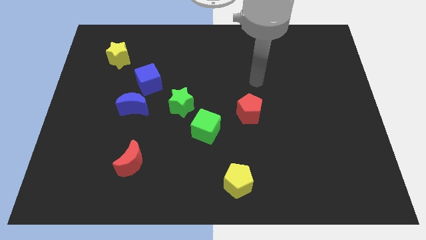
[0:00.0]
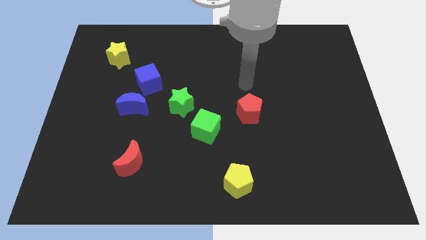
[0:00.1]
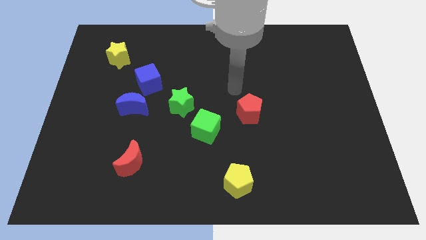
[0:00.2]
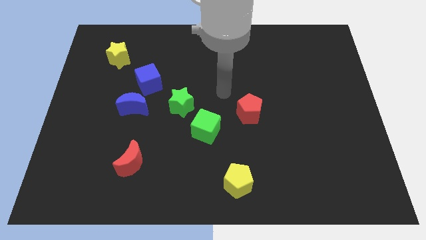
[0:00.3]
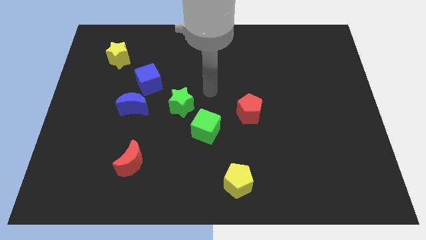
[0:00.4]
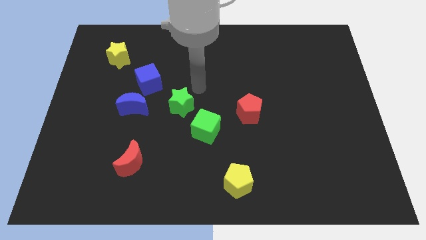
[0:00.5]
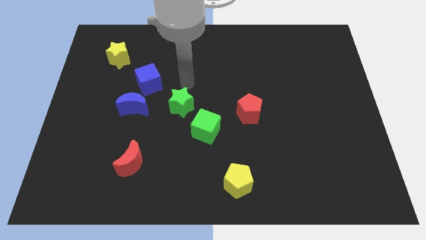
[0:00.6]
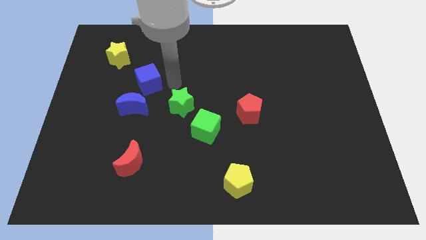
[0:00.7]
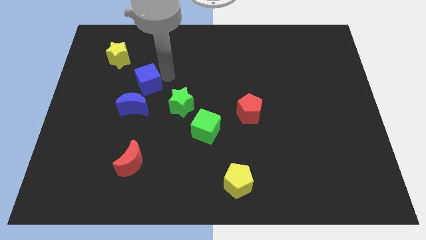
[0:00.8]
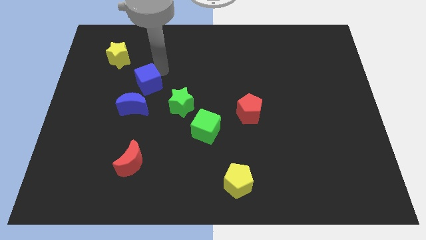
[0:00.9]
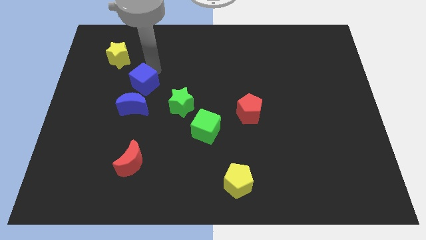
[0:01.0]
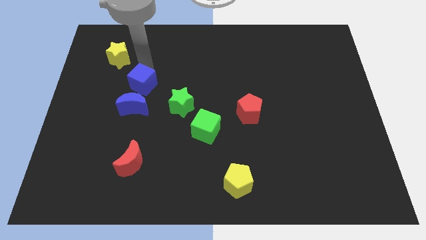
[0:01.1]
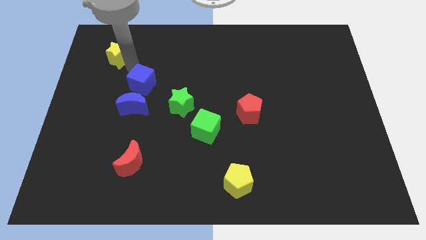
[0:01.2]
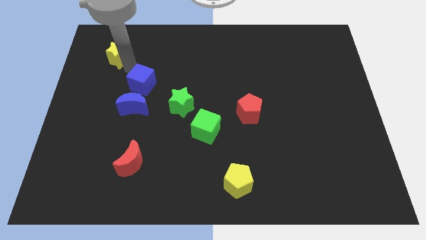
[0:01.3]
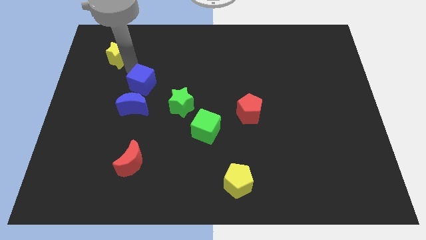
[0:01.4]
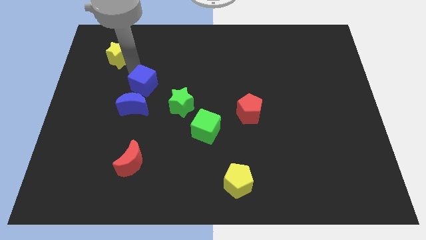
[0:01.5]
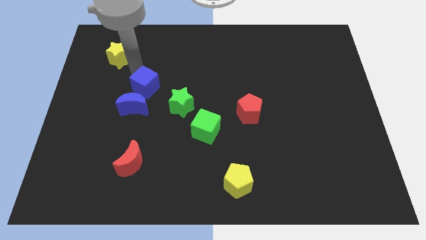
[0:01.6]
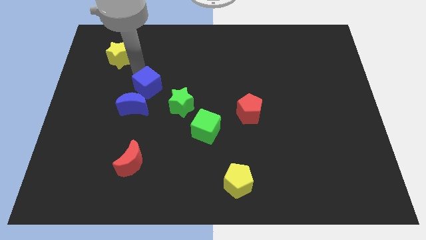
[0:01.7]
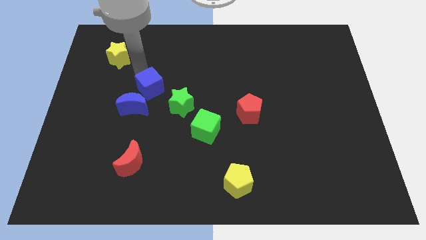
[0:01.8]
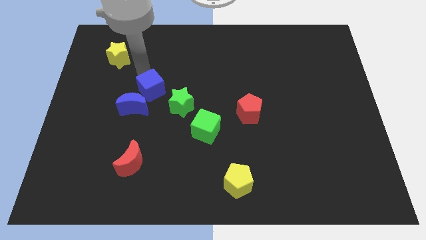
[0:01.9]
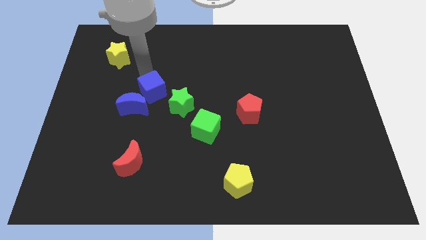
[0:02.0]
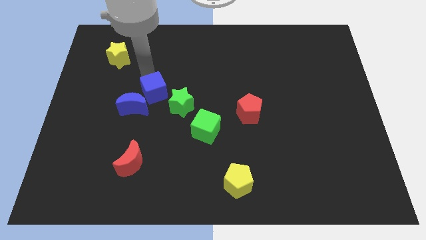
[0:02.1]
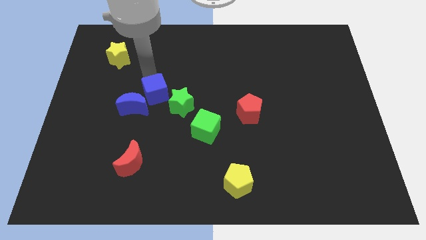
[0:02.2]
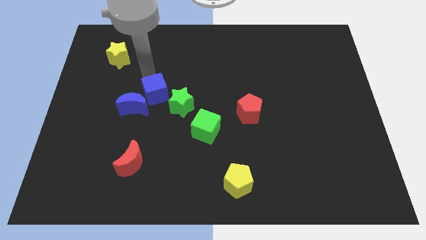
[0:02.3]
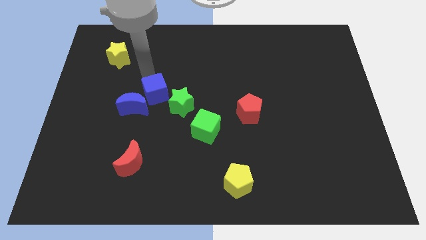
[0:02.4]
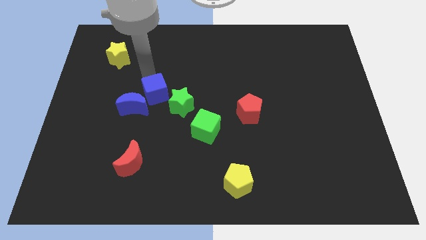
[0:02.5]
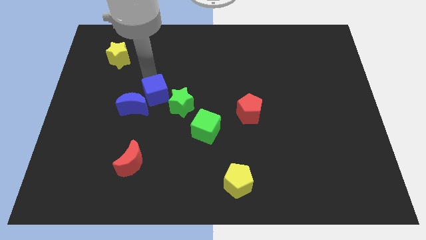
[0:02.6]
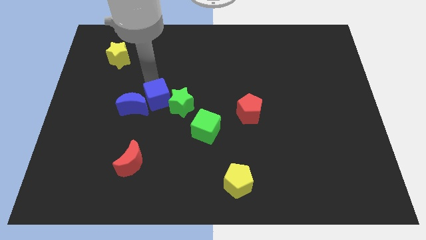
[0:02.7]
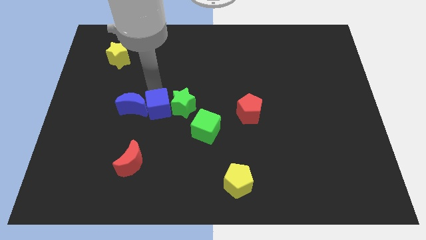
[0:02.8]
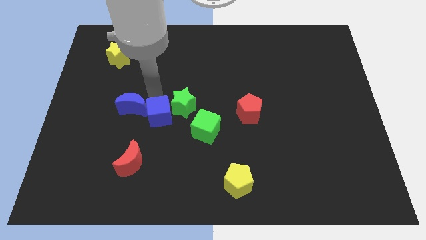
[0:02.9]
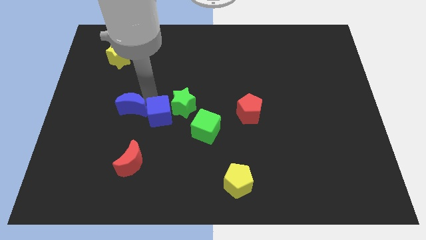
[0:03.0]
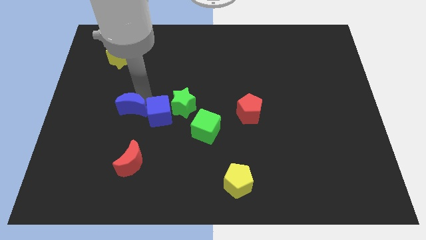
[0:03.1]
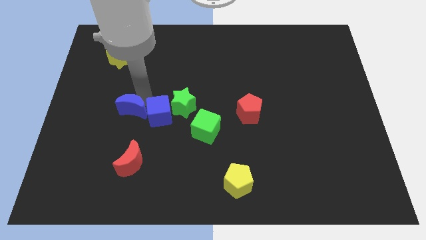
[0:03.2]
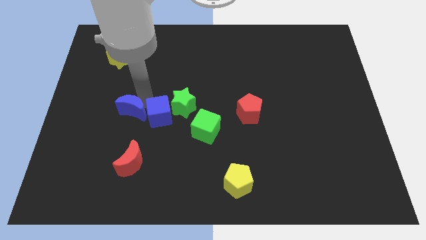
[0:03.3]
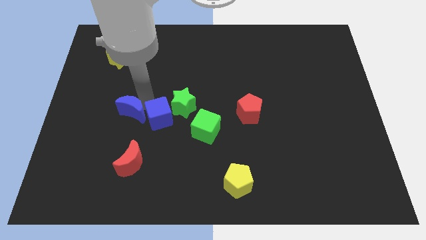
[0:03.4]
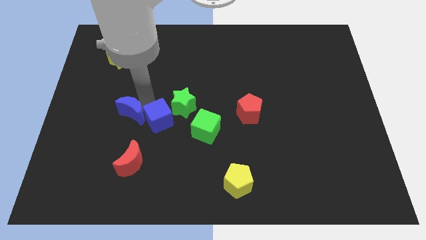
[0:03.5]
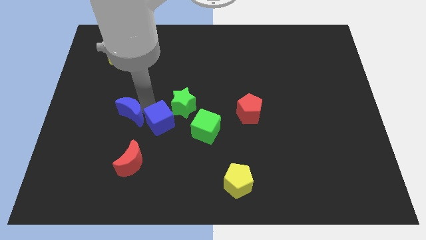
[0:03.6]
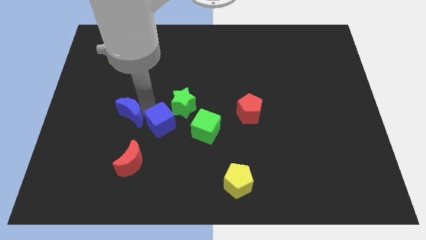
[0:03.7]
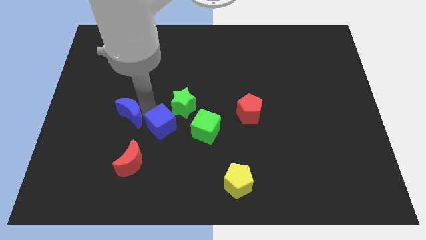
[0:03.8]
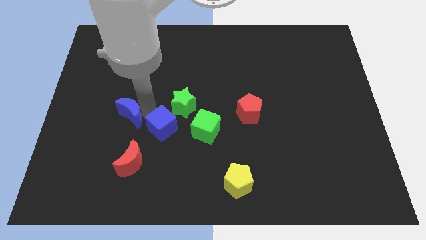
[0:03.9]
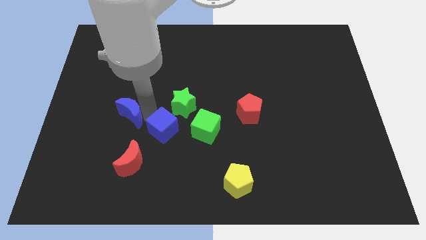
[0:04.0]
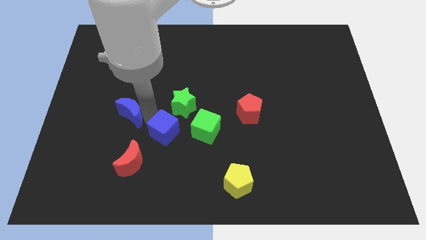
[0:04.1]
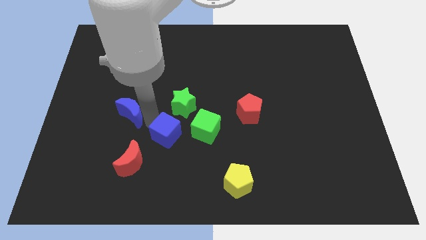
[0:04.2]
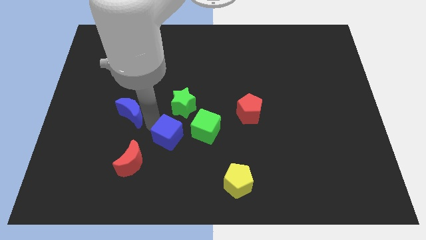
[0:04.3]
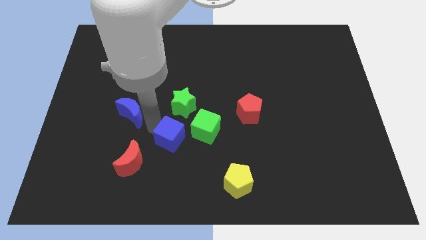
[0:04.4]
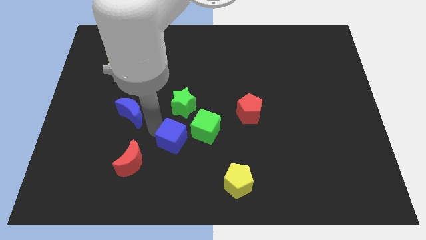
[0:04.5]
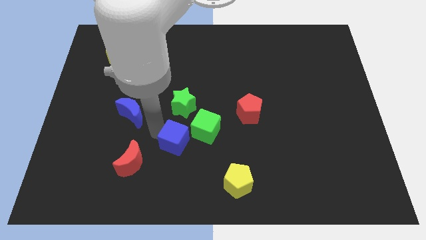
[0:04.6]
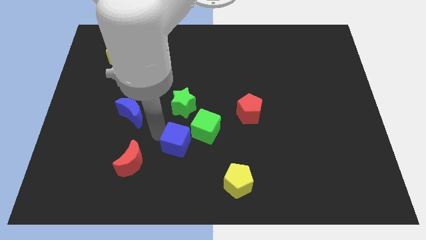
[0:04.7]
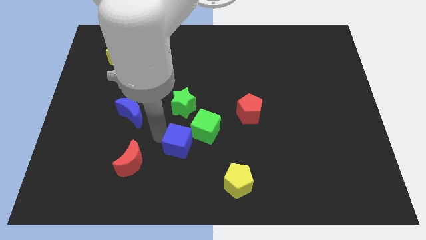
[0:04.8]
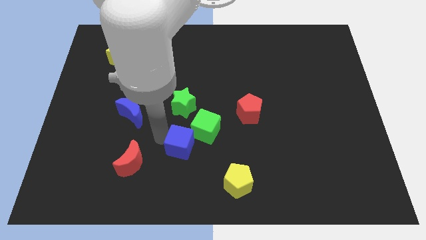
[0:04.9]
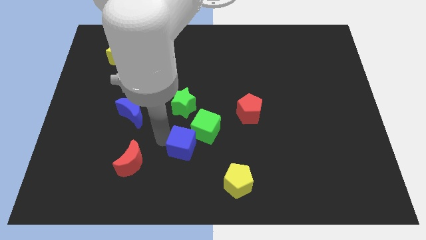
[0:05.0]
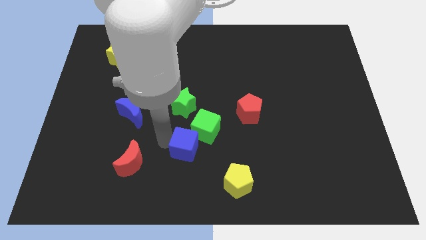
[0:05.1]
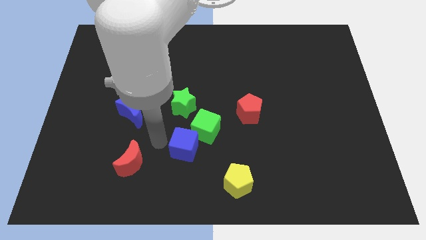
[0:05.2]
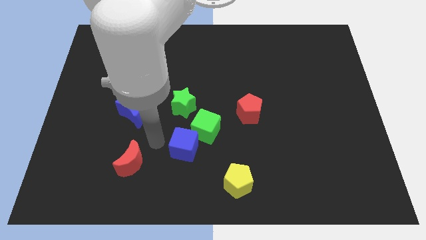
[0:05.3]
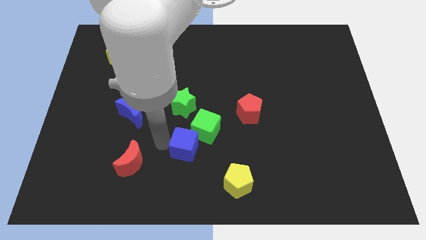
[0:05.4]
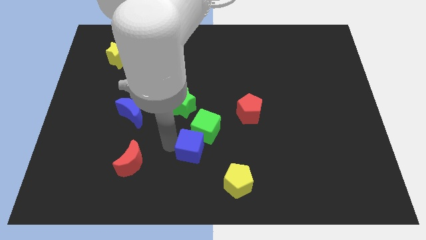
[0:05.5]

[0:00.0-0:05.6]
slide the blue cube diagonally downwards and right

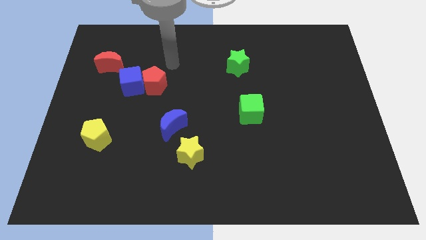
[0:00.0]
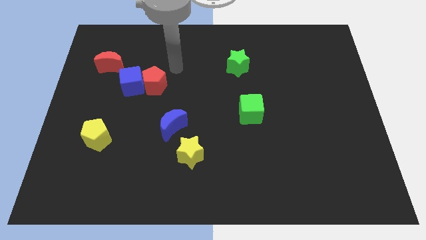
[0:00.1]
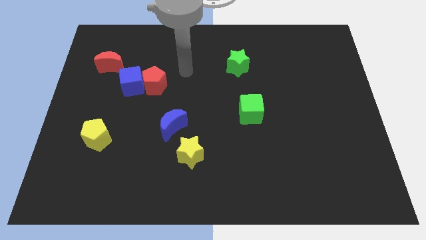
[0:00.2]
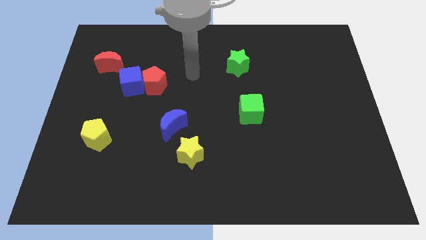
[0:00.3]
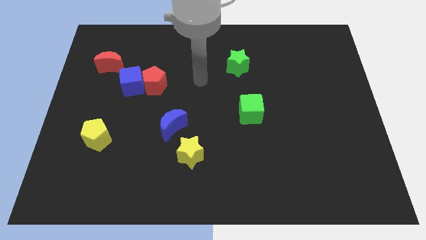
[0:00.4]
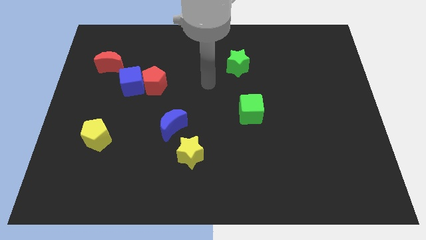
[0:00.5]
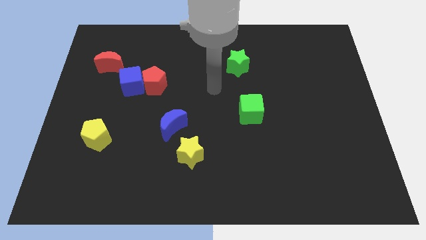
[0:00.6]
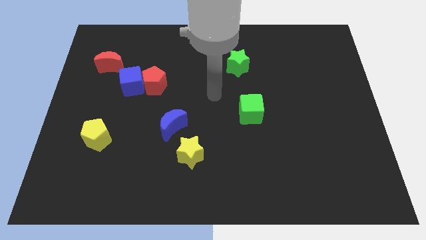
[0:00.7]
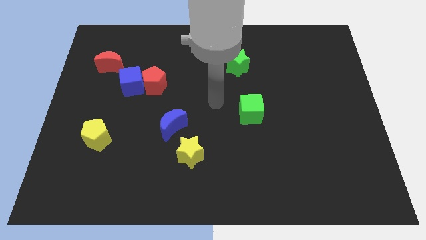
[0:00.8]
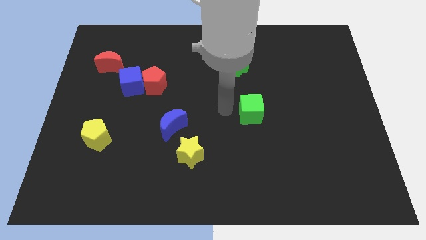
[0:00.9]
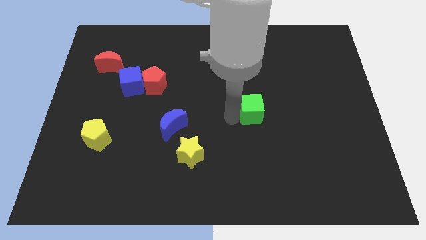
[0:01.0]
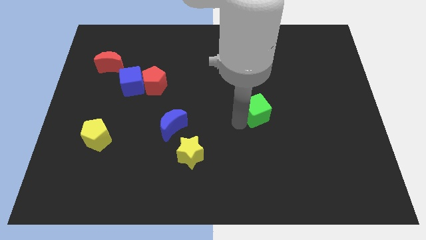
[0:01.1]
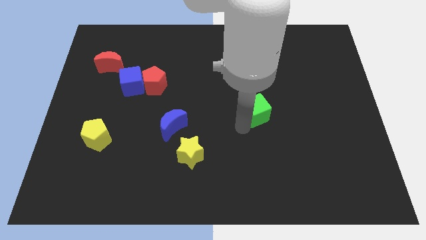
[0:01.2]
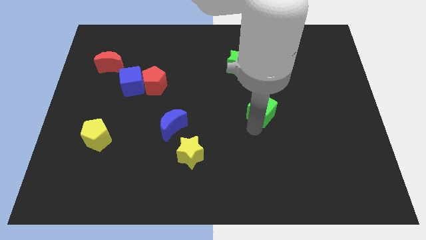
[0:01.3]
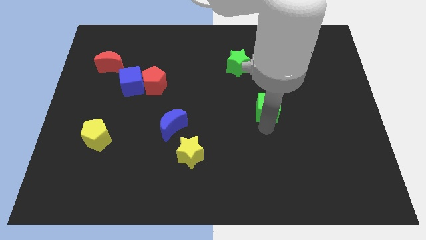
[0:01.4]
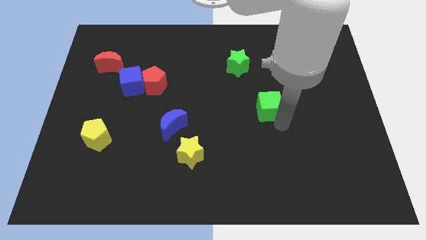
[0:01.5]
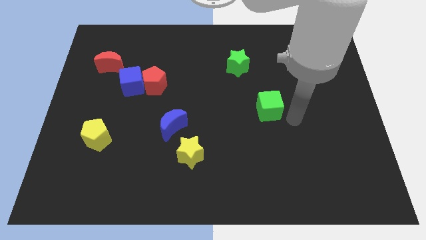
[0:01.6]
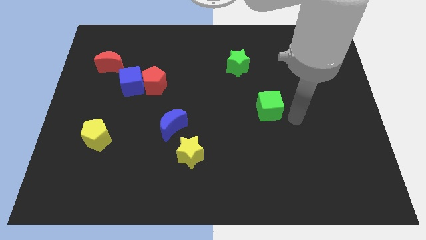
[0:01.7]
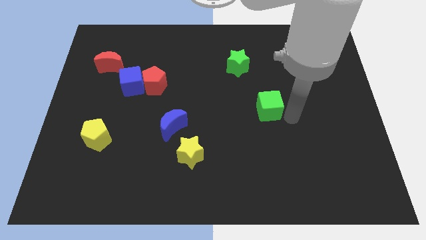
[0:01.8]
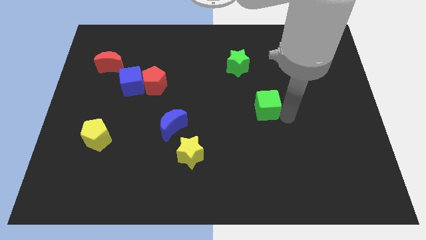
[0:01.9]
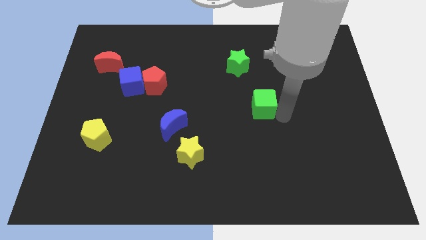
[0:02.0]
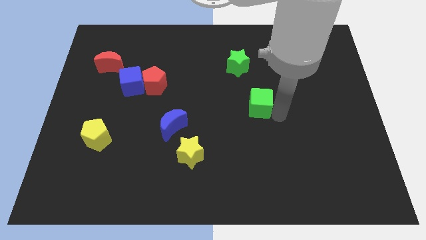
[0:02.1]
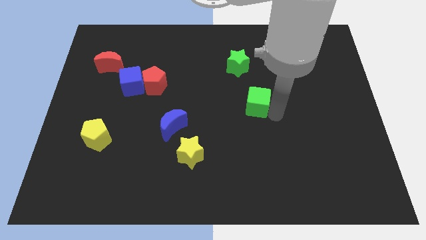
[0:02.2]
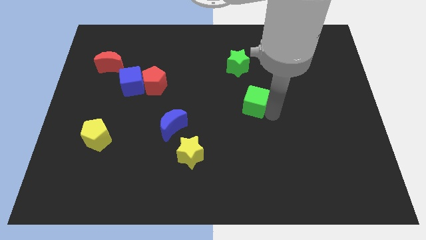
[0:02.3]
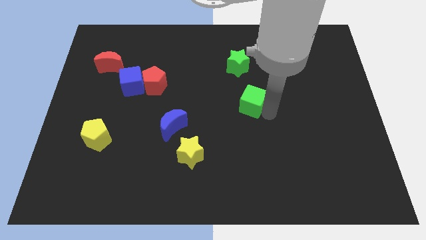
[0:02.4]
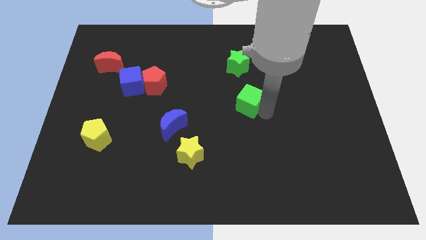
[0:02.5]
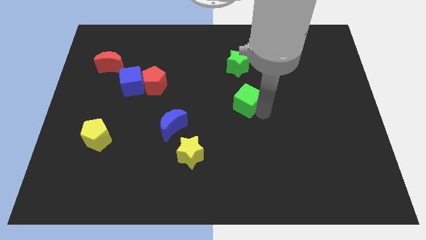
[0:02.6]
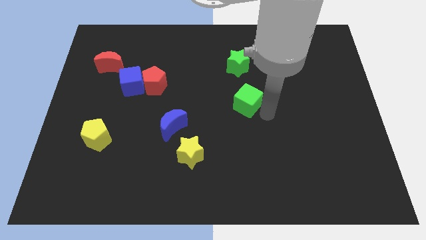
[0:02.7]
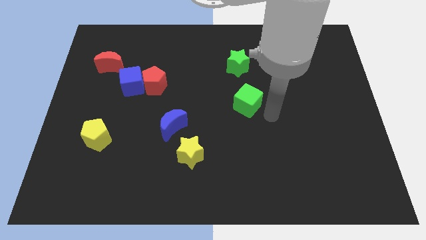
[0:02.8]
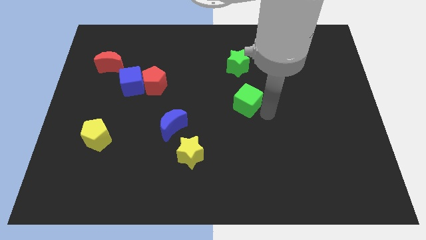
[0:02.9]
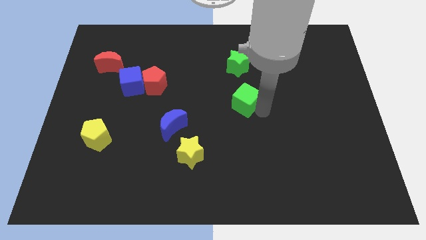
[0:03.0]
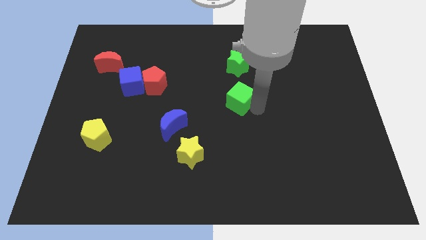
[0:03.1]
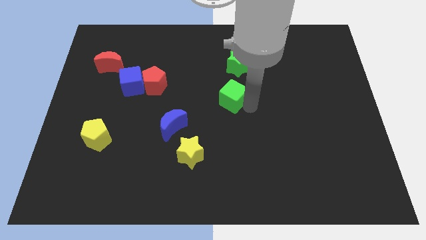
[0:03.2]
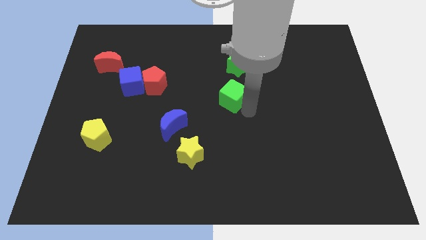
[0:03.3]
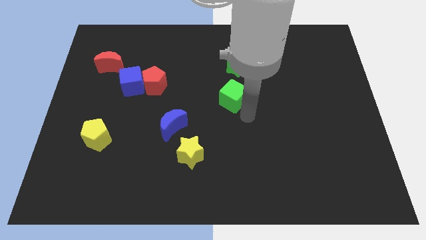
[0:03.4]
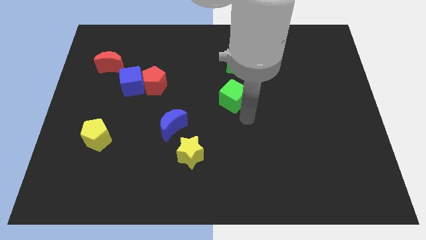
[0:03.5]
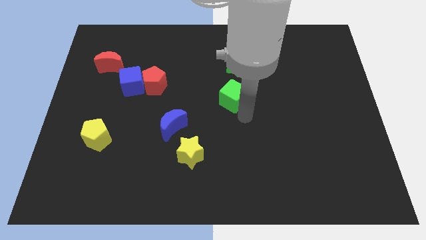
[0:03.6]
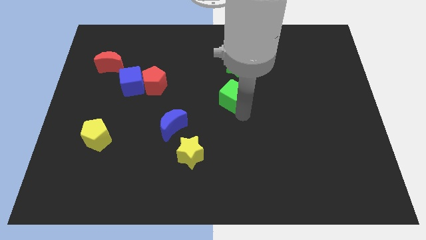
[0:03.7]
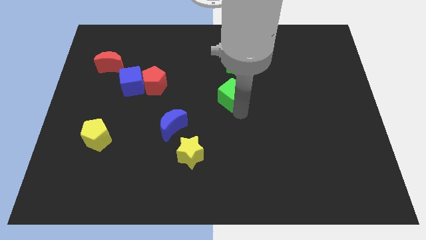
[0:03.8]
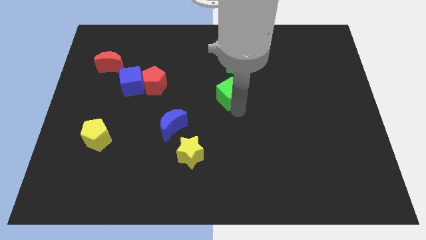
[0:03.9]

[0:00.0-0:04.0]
slightly push the green cube upwards and left diagonally
